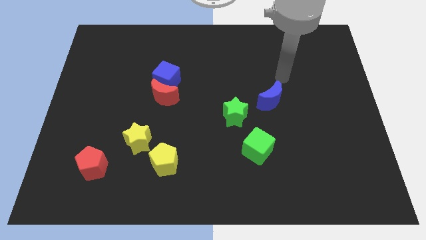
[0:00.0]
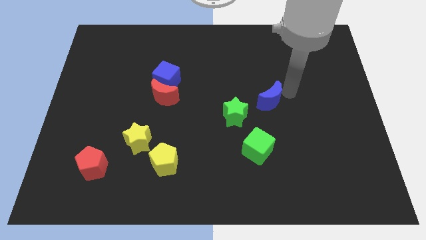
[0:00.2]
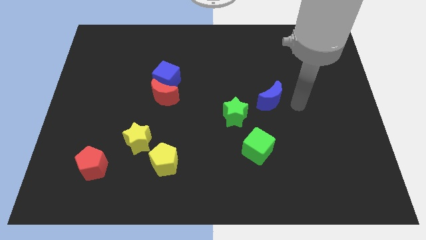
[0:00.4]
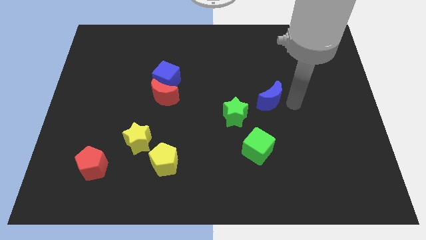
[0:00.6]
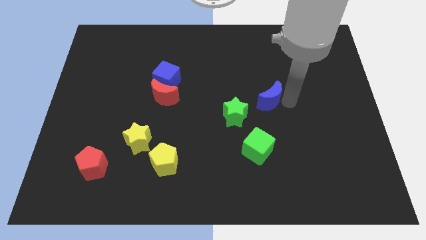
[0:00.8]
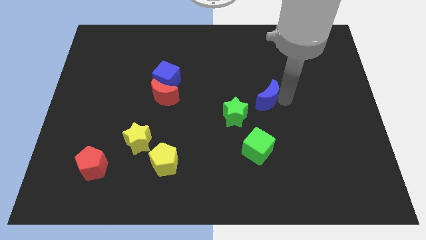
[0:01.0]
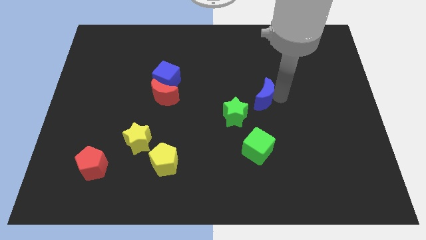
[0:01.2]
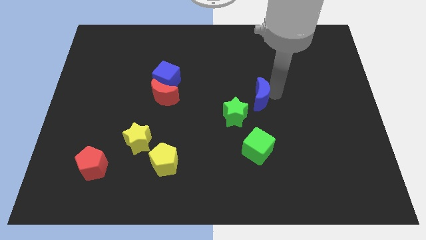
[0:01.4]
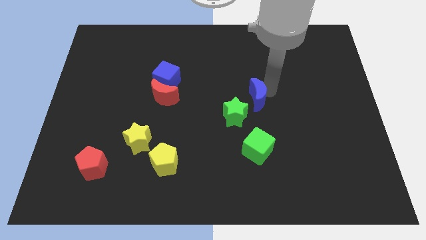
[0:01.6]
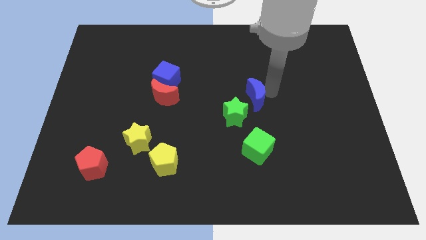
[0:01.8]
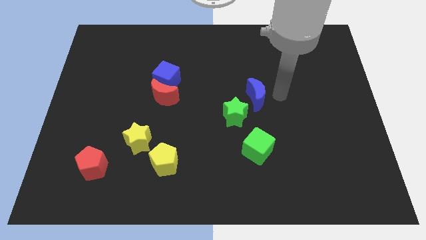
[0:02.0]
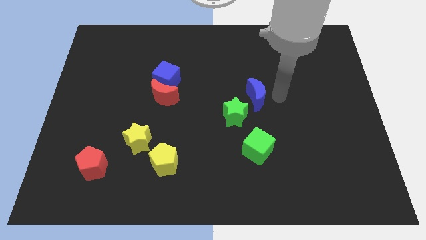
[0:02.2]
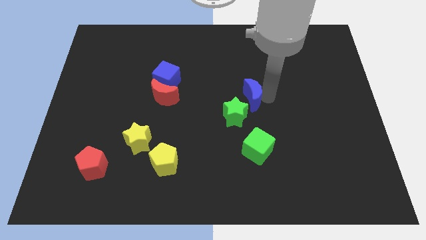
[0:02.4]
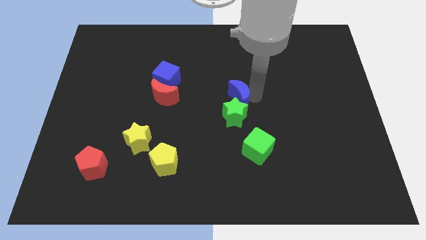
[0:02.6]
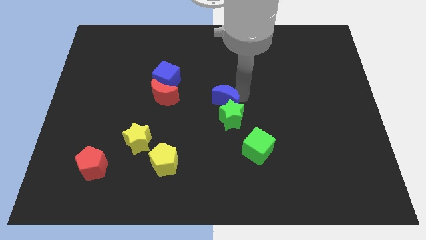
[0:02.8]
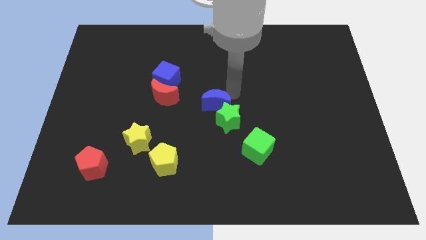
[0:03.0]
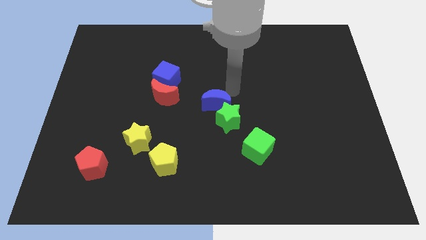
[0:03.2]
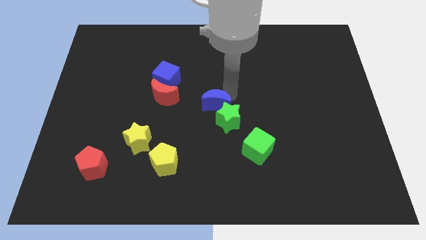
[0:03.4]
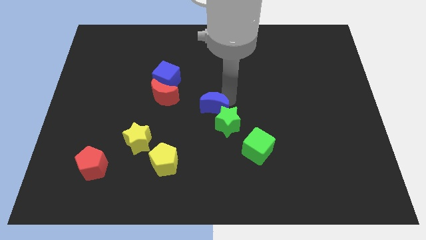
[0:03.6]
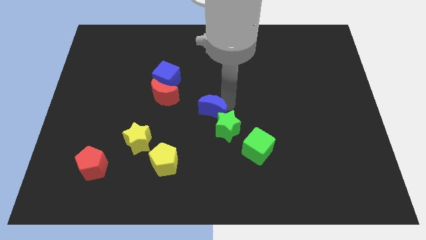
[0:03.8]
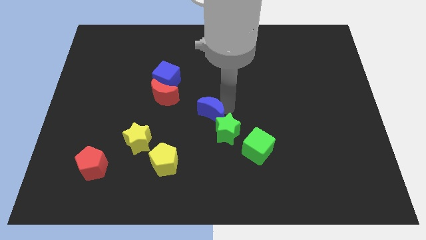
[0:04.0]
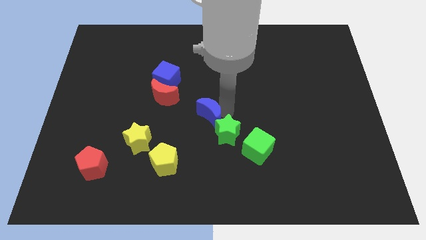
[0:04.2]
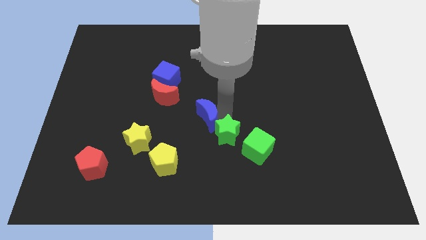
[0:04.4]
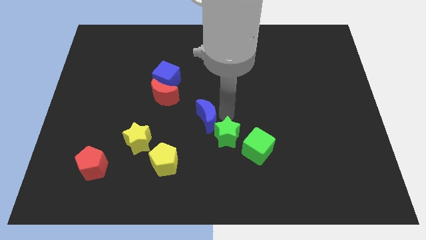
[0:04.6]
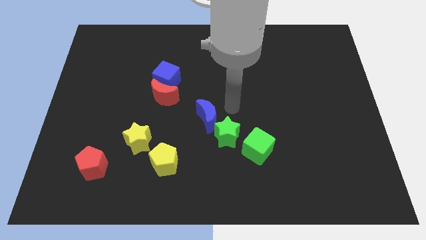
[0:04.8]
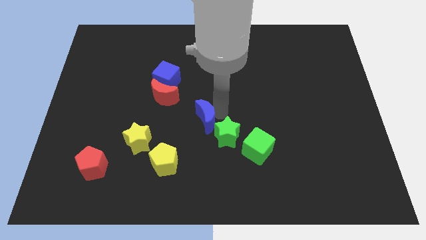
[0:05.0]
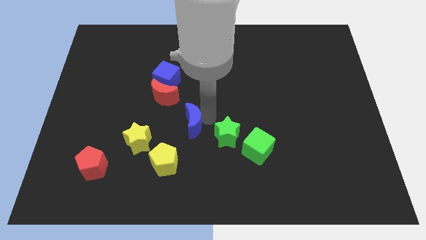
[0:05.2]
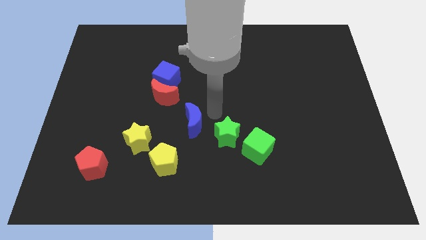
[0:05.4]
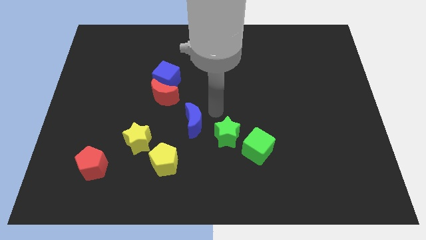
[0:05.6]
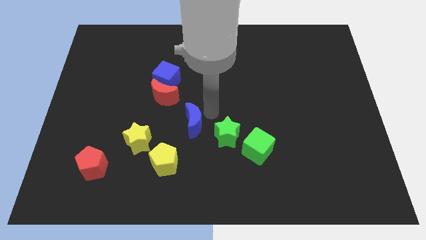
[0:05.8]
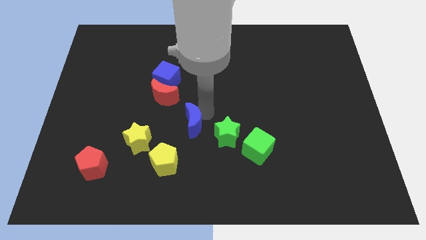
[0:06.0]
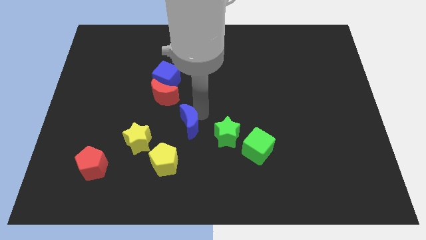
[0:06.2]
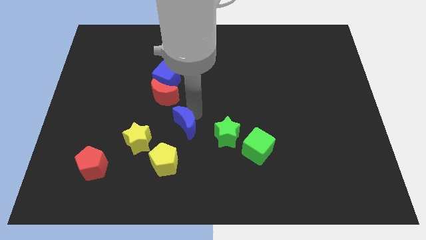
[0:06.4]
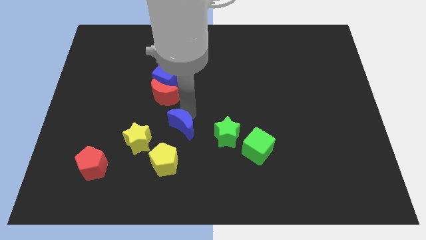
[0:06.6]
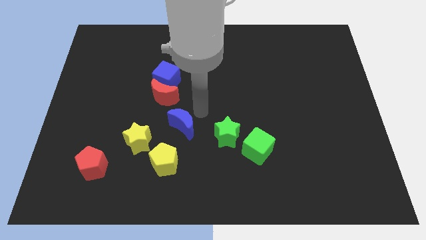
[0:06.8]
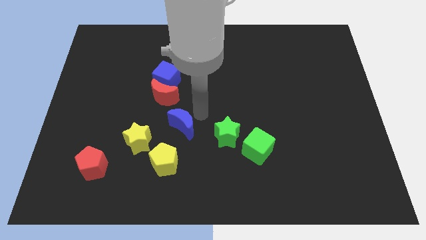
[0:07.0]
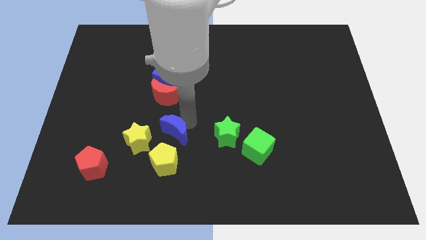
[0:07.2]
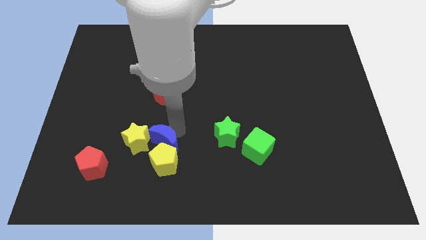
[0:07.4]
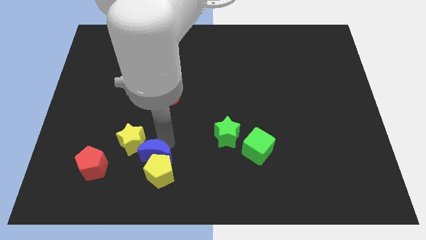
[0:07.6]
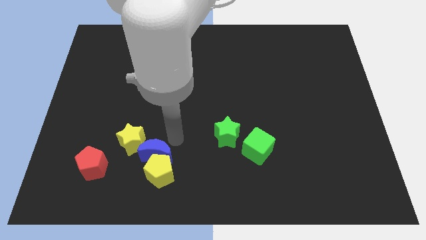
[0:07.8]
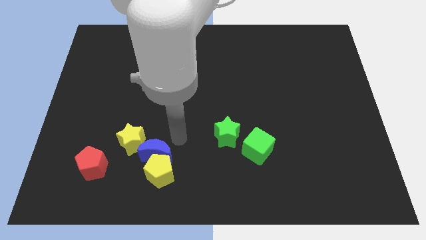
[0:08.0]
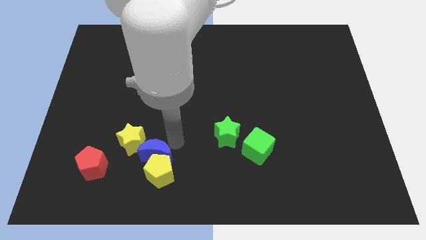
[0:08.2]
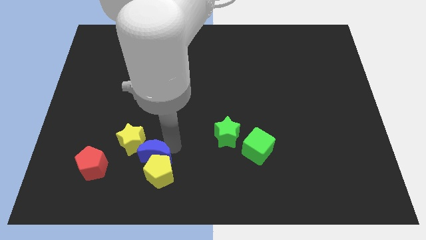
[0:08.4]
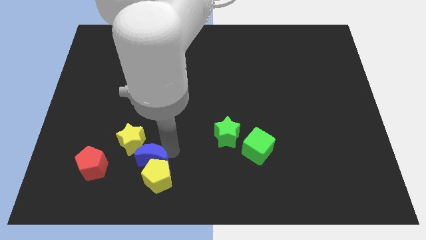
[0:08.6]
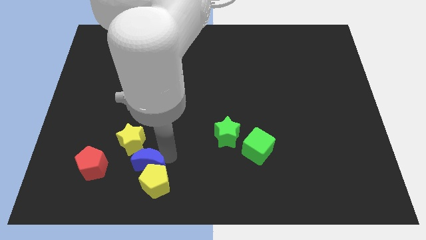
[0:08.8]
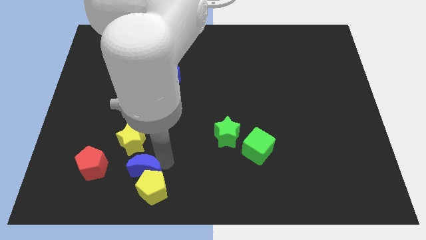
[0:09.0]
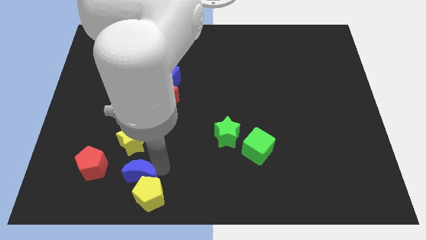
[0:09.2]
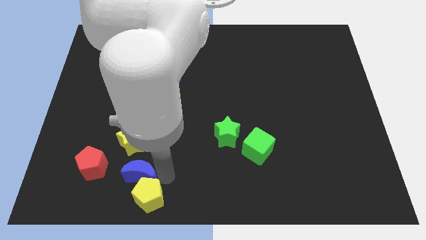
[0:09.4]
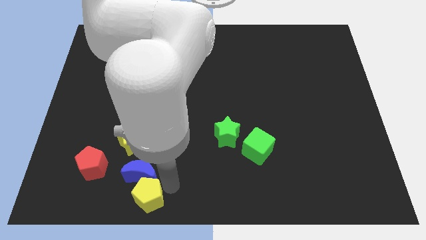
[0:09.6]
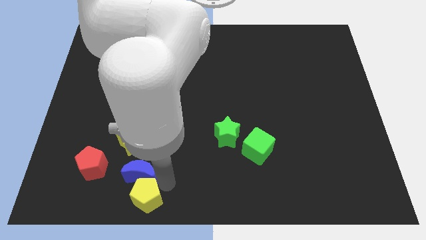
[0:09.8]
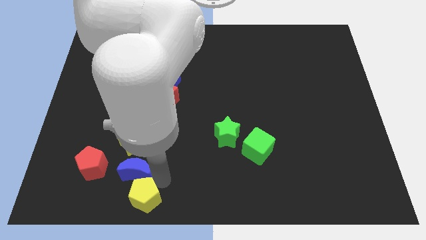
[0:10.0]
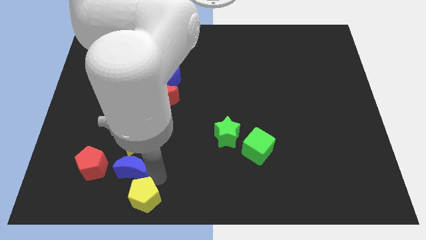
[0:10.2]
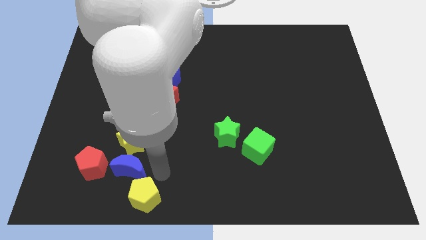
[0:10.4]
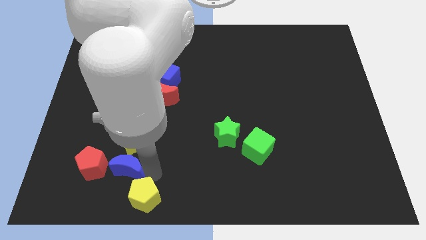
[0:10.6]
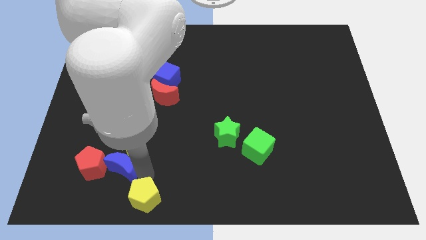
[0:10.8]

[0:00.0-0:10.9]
slide the blue moon next to the red pentagon

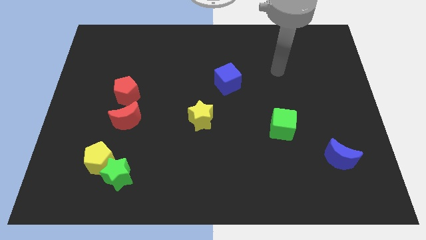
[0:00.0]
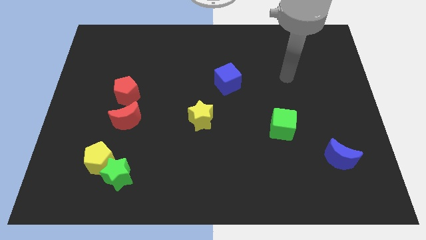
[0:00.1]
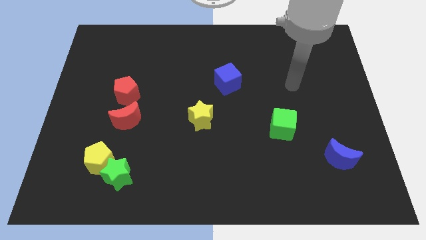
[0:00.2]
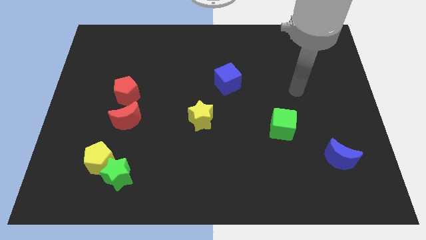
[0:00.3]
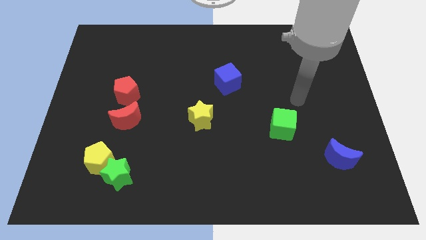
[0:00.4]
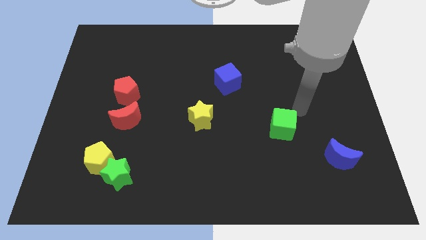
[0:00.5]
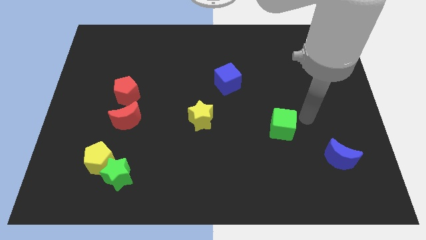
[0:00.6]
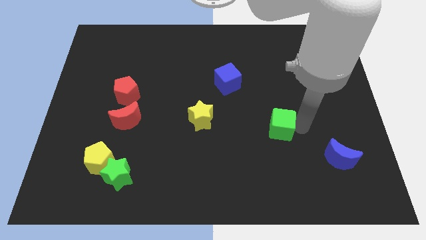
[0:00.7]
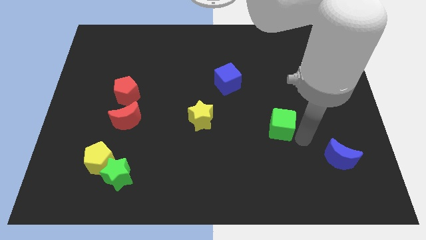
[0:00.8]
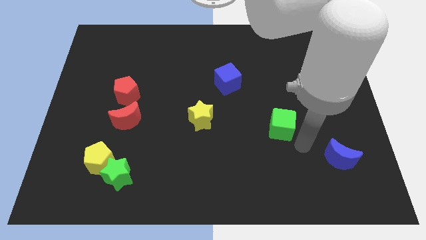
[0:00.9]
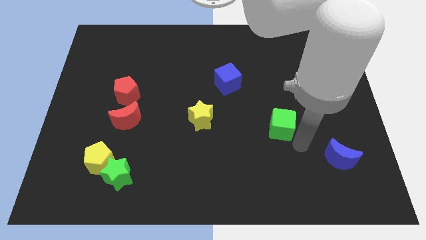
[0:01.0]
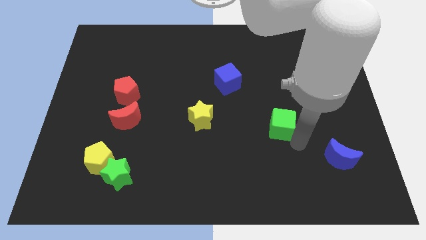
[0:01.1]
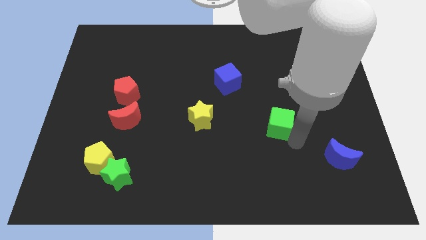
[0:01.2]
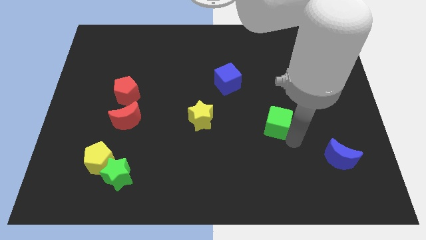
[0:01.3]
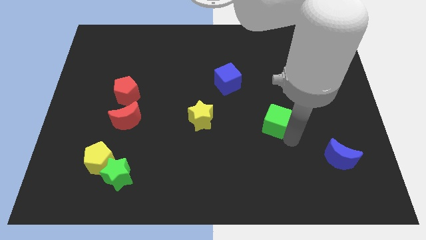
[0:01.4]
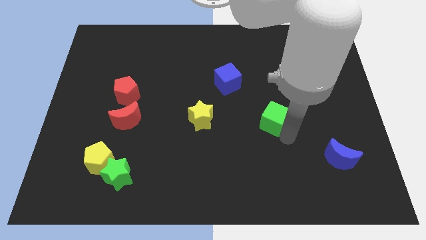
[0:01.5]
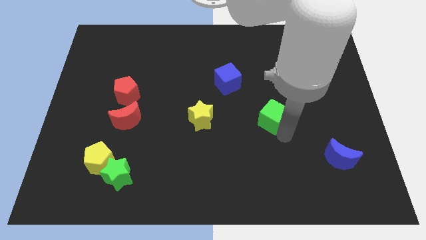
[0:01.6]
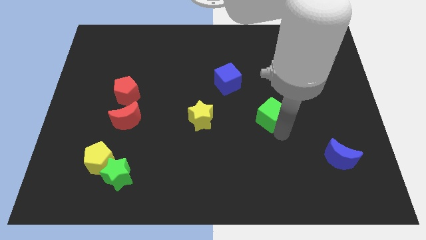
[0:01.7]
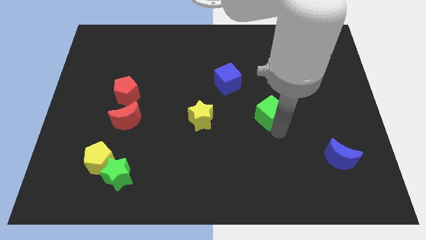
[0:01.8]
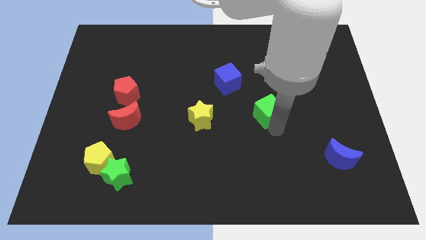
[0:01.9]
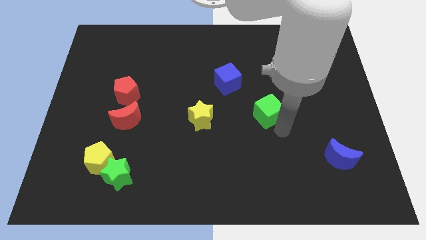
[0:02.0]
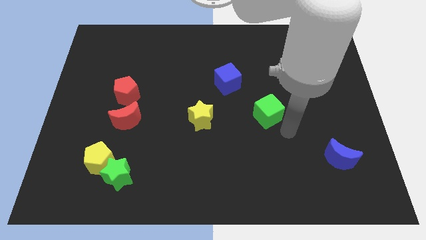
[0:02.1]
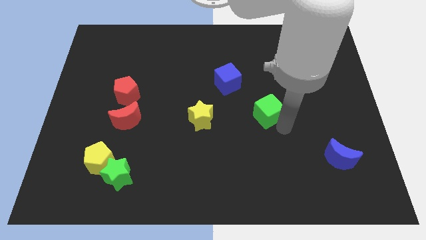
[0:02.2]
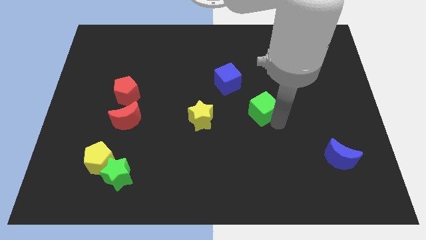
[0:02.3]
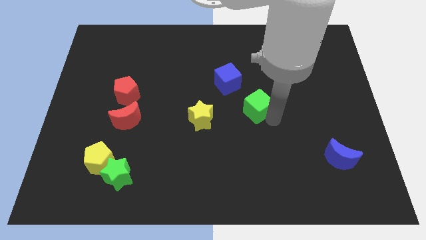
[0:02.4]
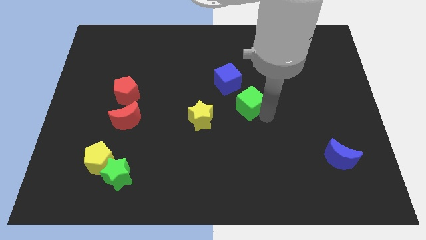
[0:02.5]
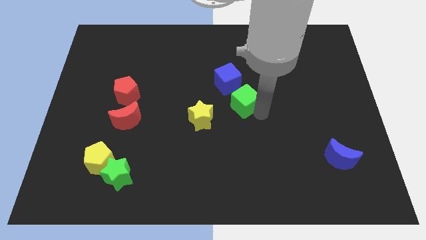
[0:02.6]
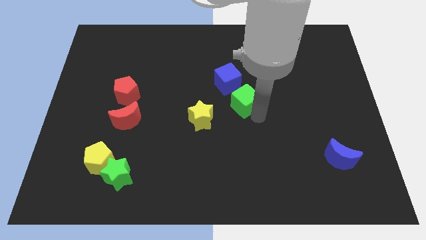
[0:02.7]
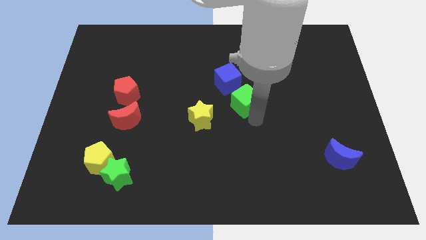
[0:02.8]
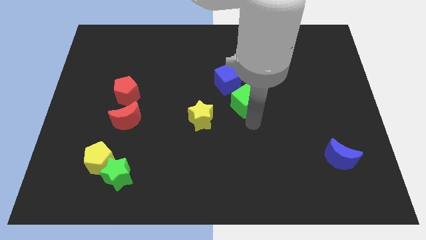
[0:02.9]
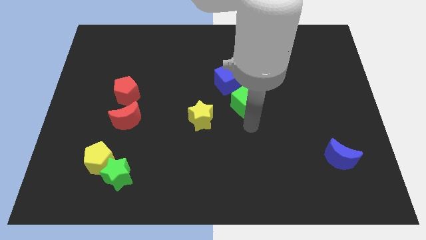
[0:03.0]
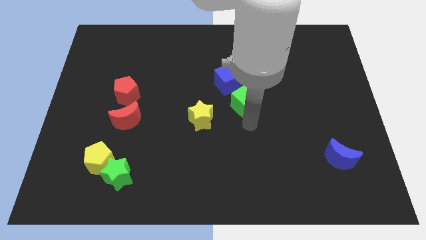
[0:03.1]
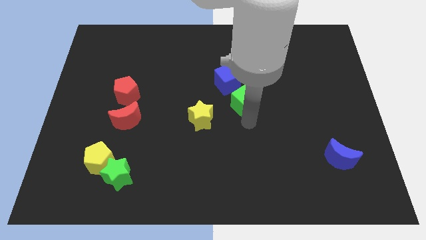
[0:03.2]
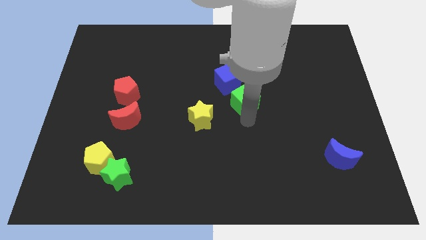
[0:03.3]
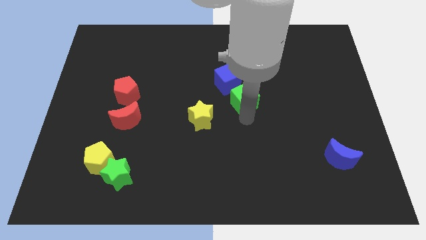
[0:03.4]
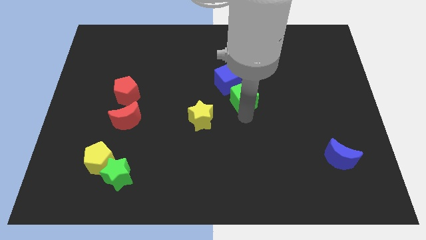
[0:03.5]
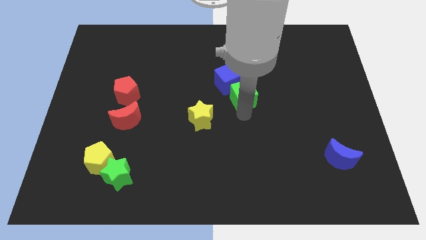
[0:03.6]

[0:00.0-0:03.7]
move the green cube next to the blue cube
